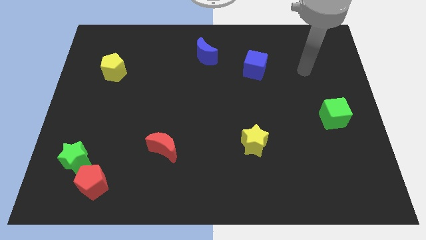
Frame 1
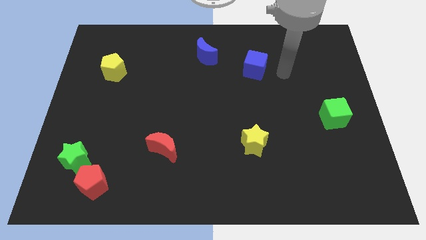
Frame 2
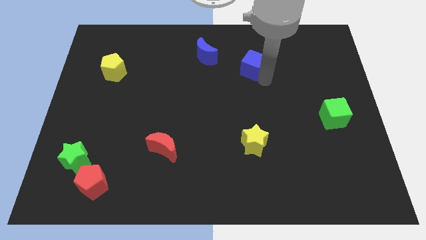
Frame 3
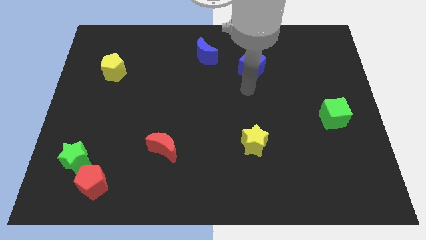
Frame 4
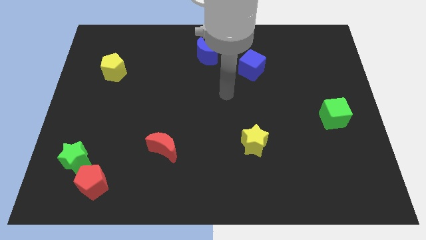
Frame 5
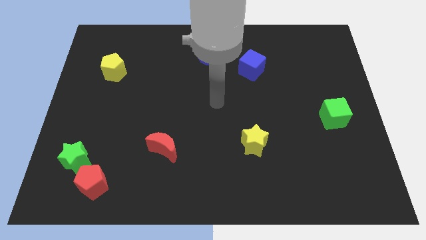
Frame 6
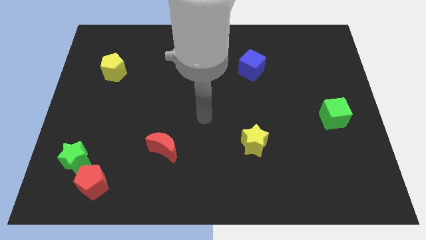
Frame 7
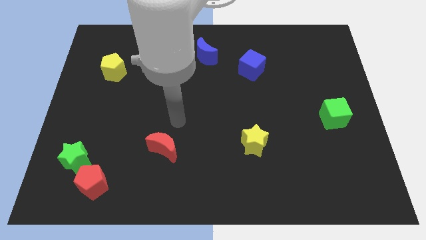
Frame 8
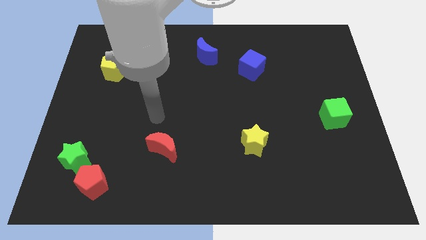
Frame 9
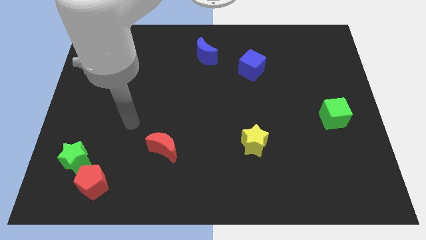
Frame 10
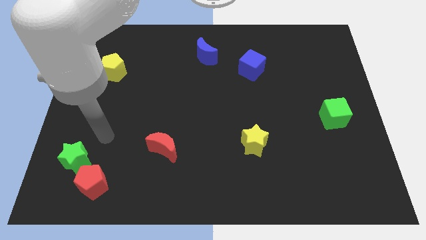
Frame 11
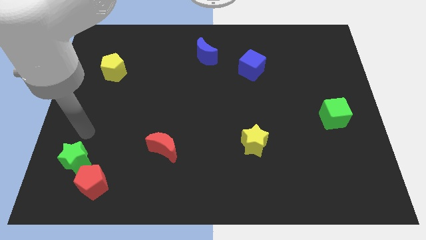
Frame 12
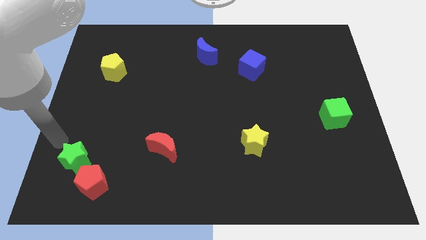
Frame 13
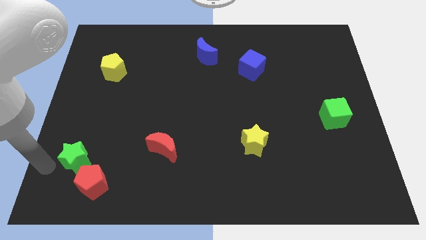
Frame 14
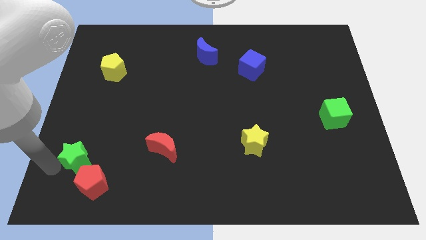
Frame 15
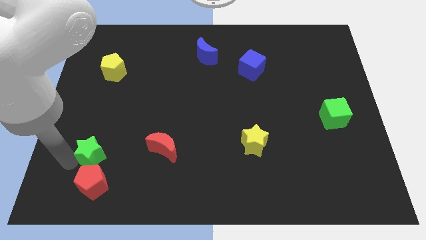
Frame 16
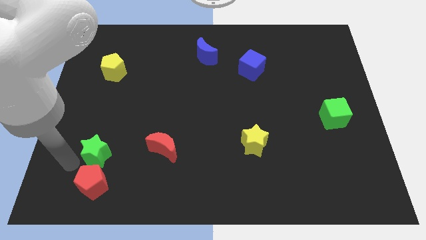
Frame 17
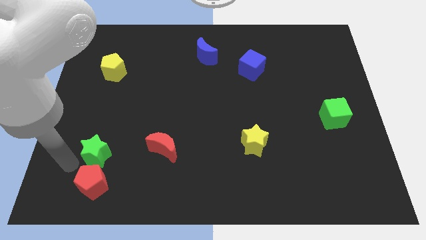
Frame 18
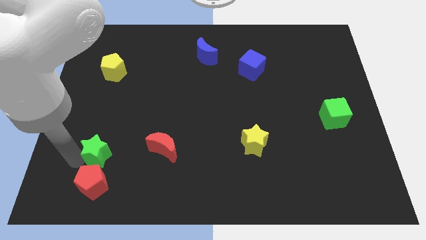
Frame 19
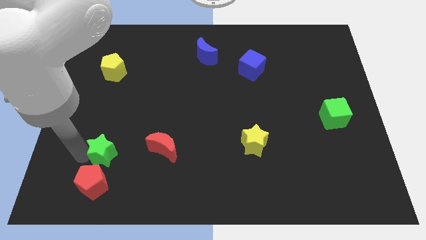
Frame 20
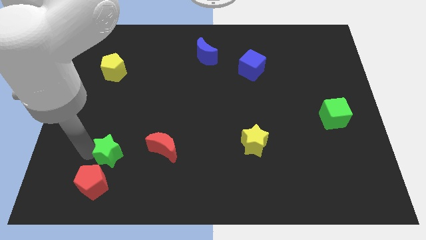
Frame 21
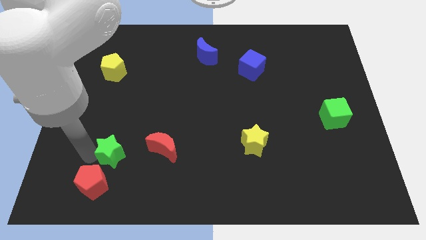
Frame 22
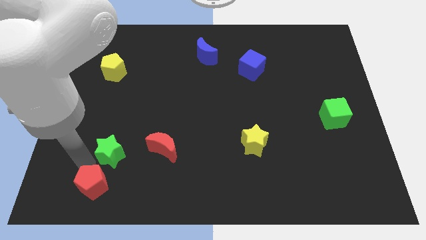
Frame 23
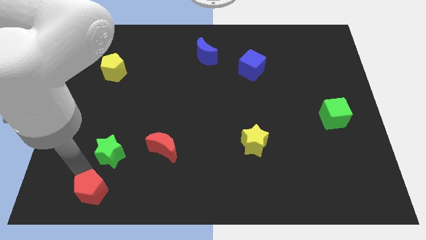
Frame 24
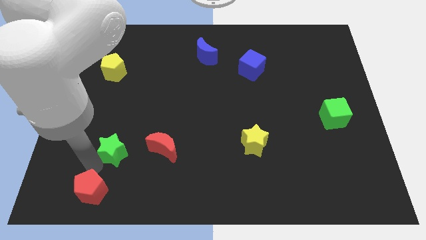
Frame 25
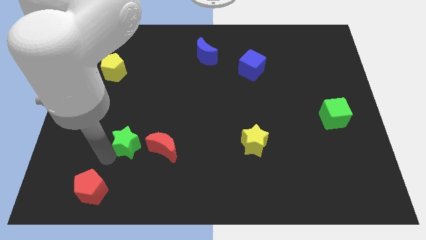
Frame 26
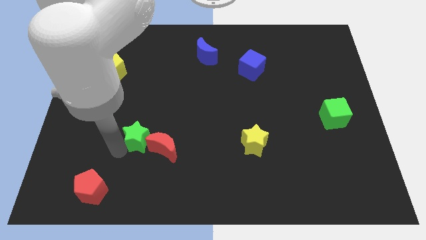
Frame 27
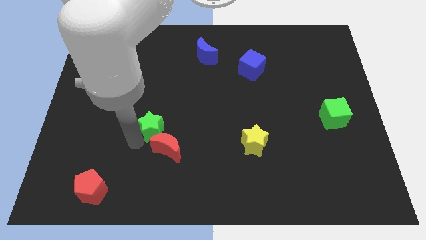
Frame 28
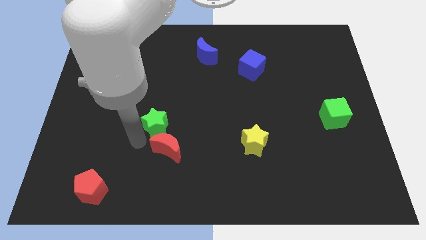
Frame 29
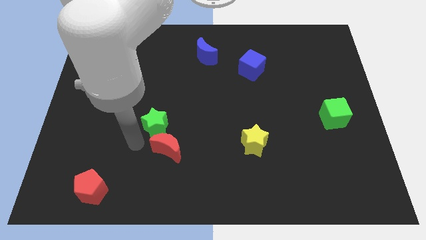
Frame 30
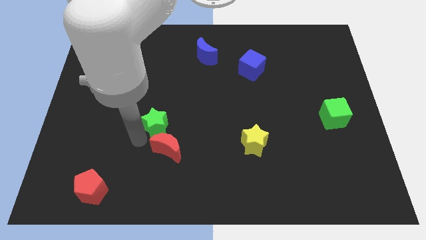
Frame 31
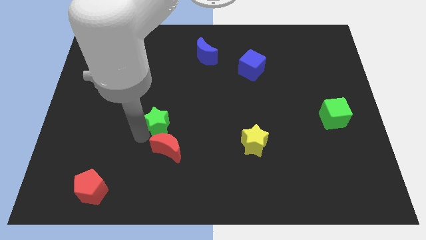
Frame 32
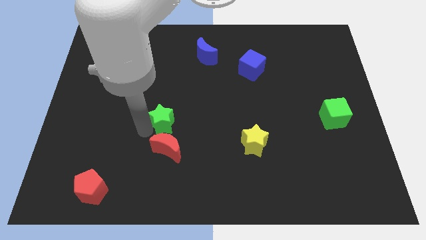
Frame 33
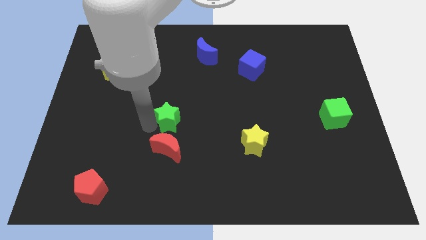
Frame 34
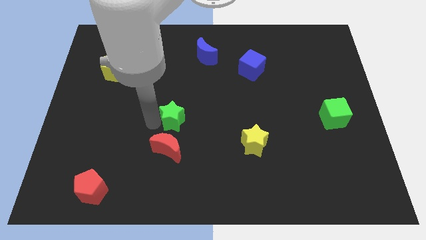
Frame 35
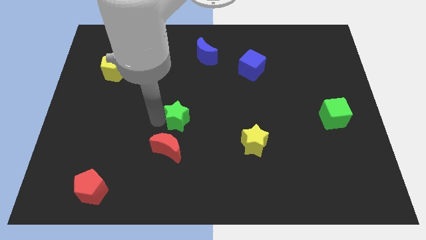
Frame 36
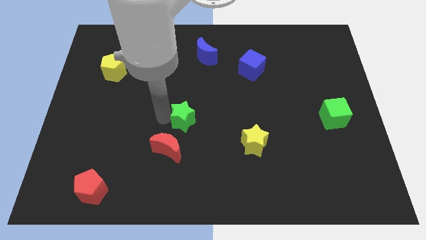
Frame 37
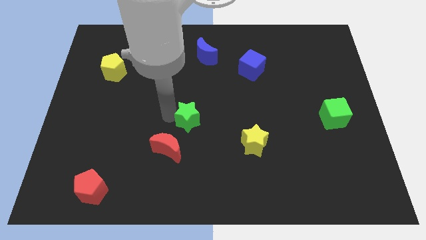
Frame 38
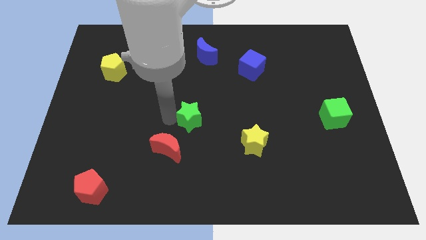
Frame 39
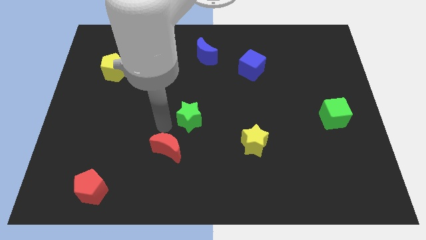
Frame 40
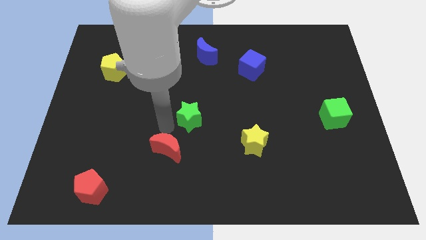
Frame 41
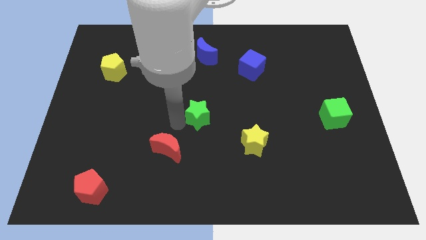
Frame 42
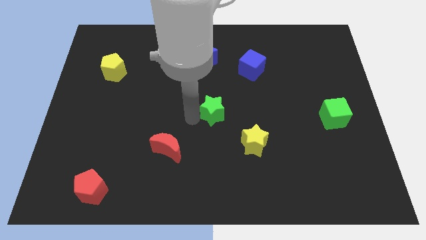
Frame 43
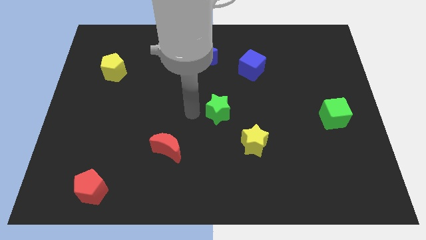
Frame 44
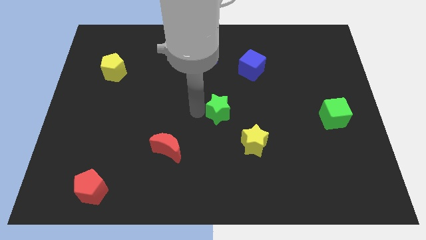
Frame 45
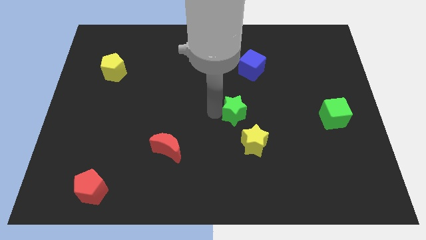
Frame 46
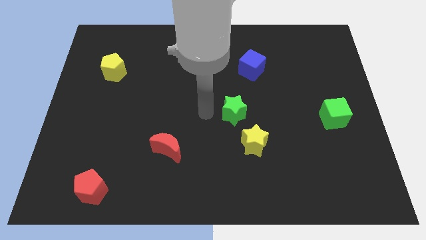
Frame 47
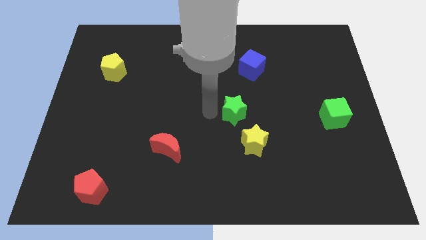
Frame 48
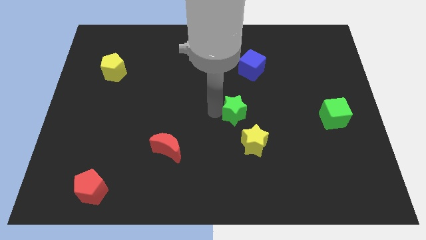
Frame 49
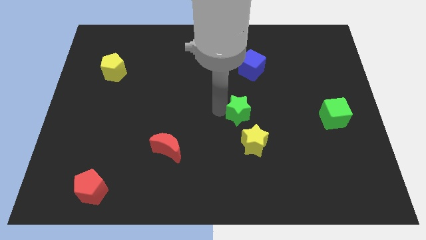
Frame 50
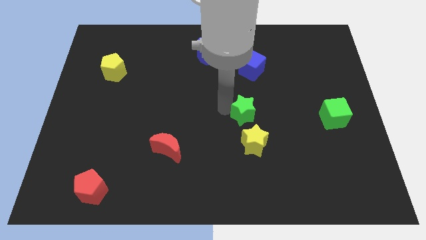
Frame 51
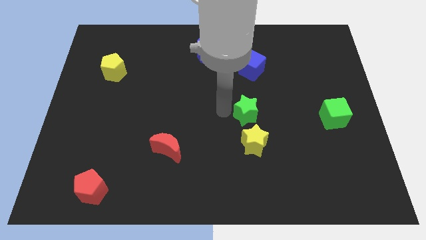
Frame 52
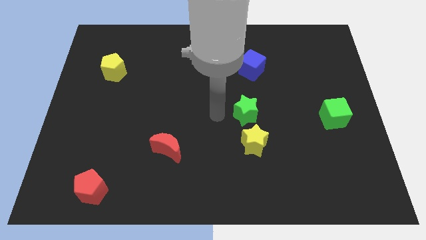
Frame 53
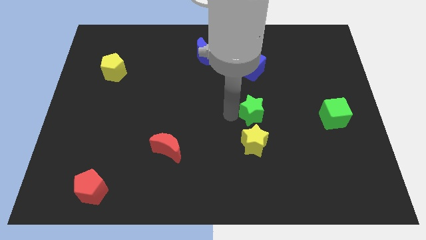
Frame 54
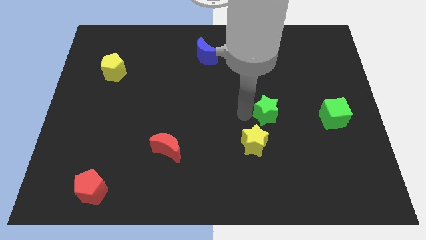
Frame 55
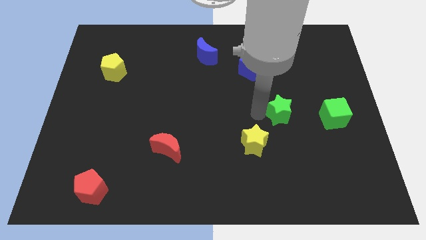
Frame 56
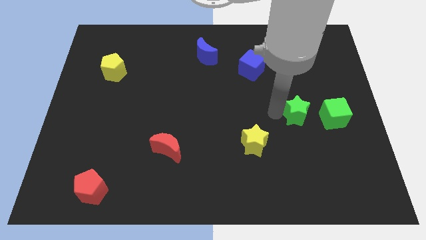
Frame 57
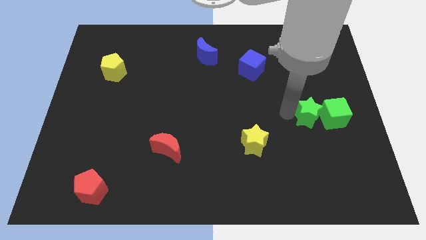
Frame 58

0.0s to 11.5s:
slide the green star towards the green cube

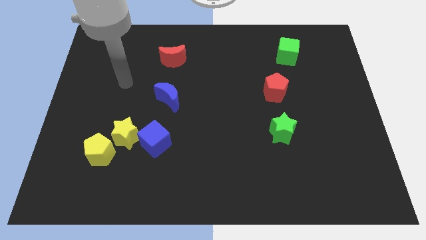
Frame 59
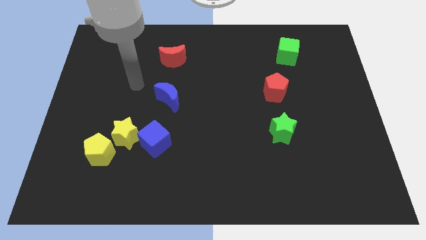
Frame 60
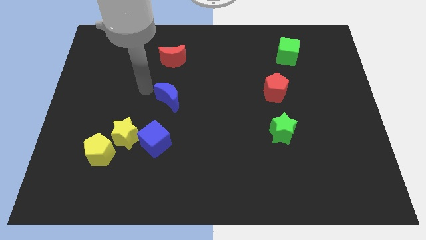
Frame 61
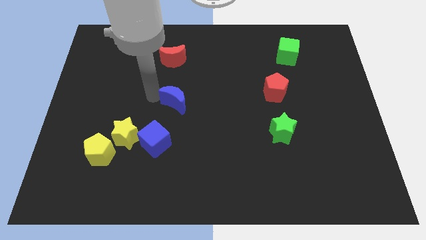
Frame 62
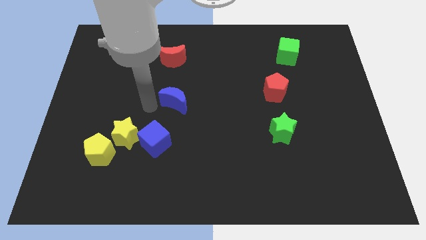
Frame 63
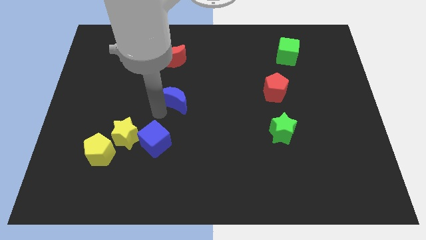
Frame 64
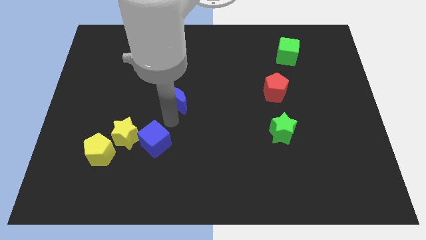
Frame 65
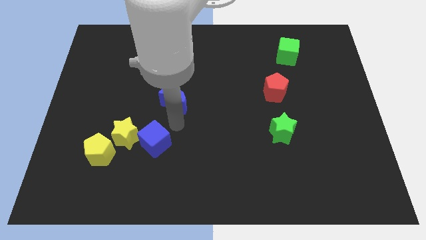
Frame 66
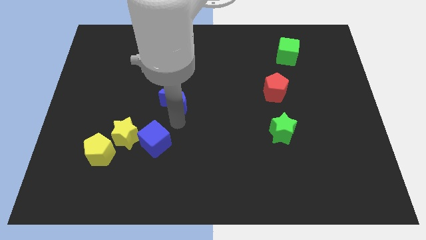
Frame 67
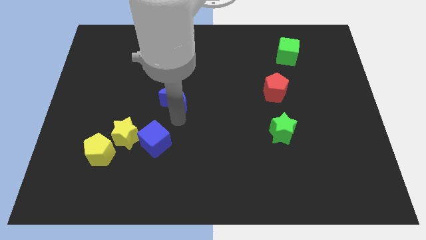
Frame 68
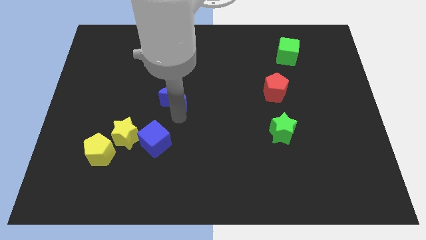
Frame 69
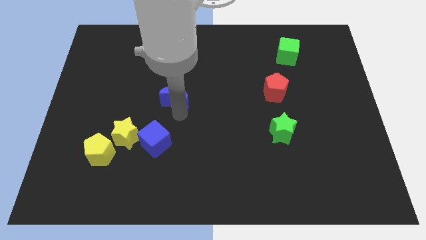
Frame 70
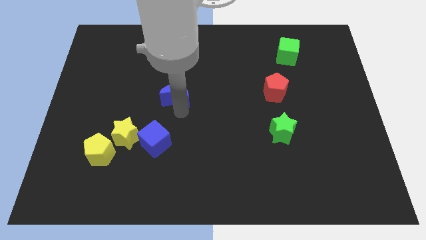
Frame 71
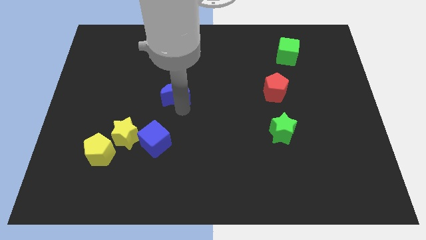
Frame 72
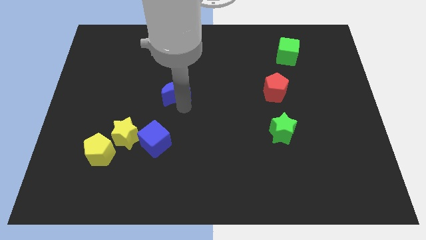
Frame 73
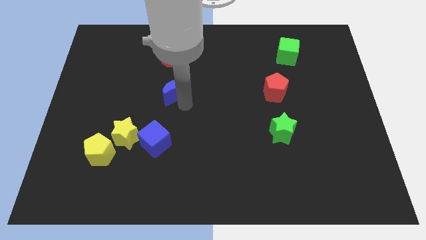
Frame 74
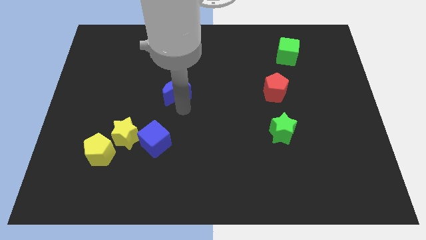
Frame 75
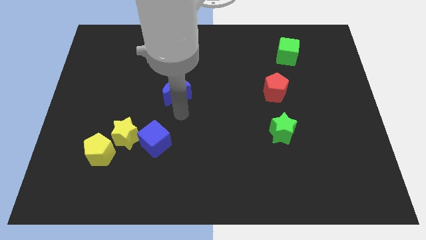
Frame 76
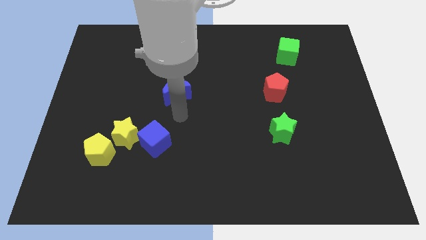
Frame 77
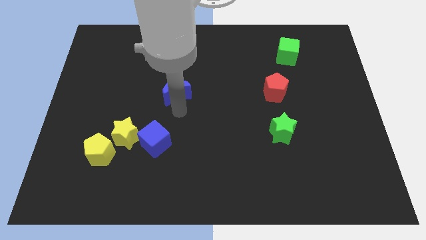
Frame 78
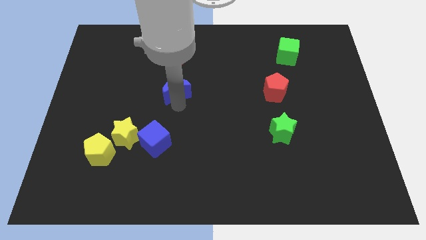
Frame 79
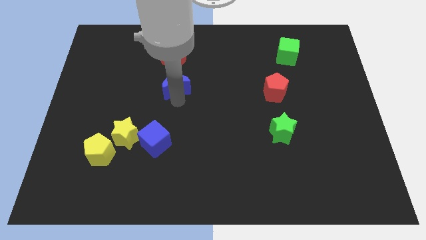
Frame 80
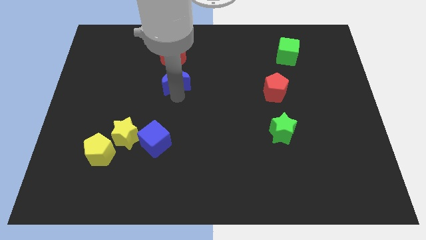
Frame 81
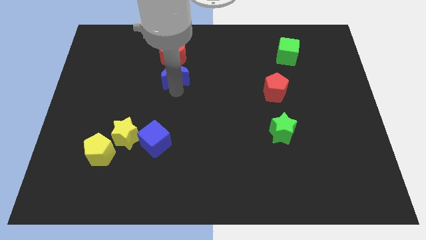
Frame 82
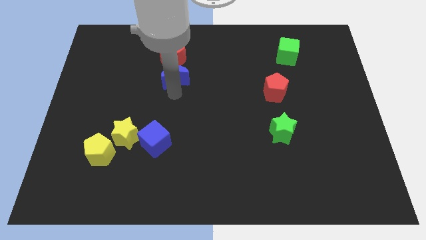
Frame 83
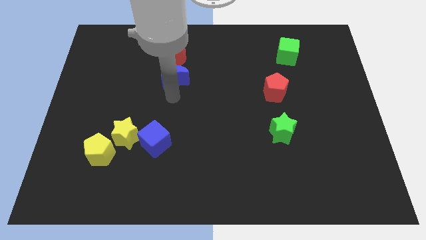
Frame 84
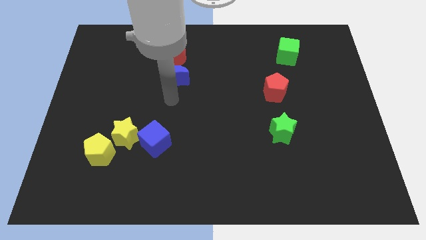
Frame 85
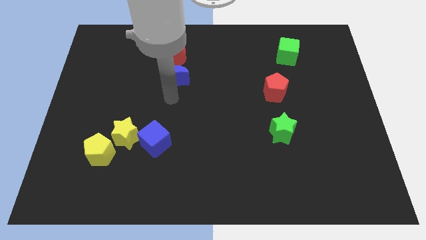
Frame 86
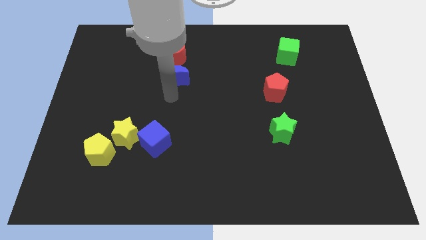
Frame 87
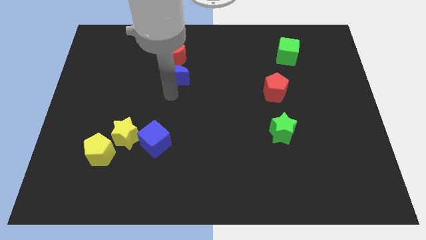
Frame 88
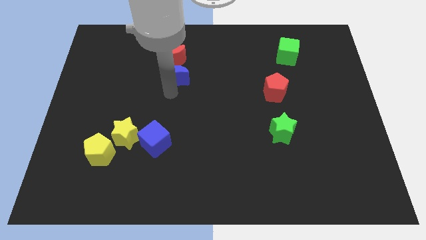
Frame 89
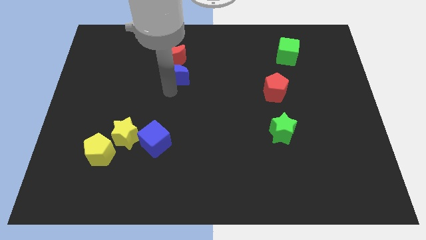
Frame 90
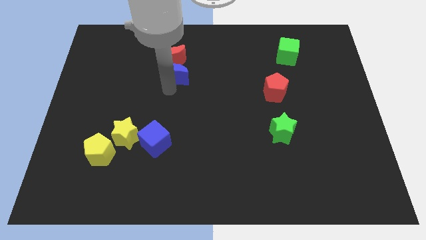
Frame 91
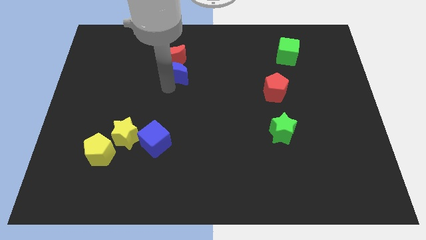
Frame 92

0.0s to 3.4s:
move the blue moon towards the red moon
